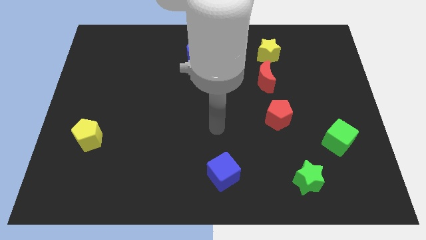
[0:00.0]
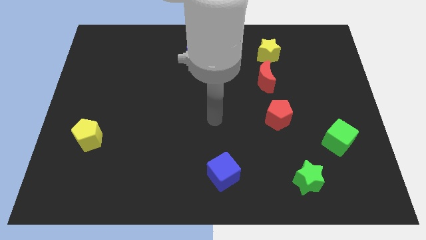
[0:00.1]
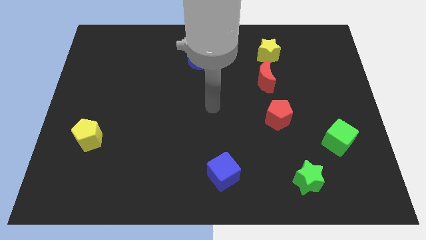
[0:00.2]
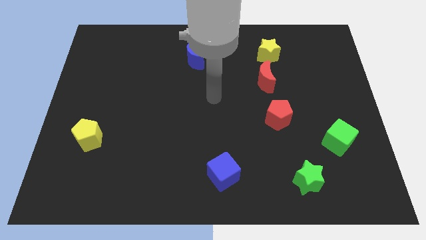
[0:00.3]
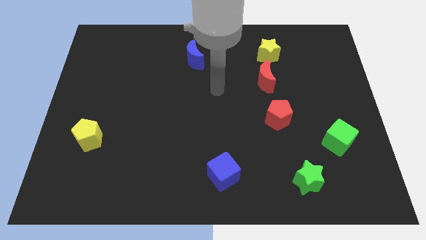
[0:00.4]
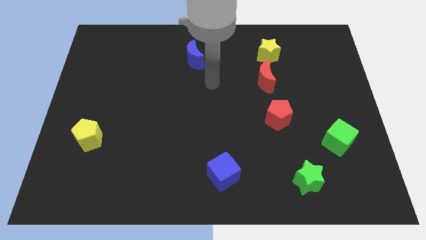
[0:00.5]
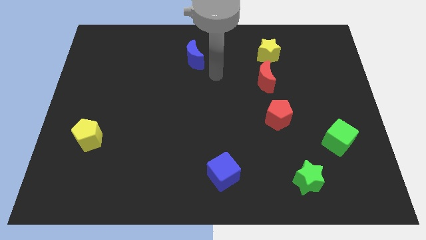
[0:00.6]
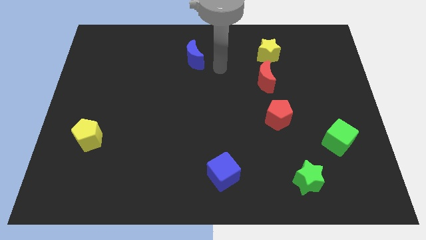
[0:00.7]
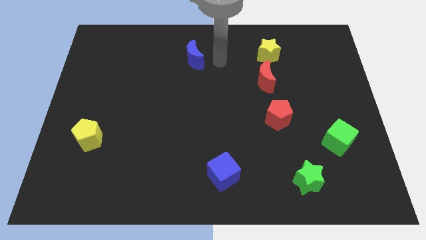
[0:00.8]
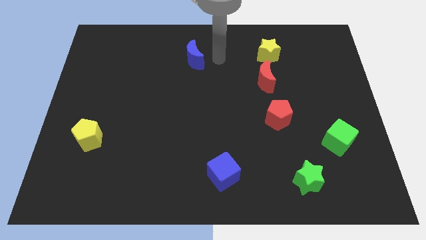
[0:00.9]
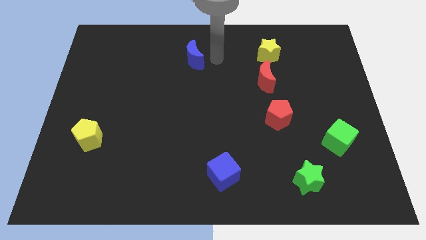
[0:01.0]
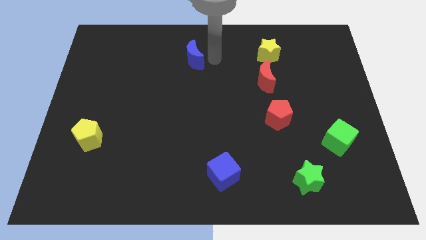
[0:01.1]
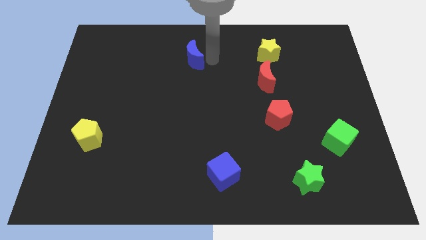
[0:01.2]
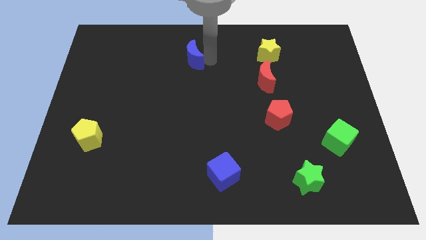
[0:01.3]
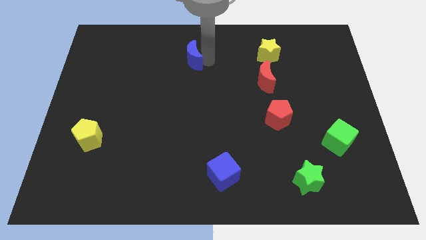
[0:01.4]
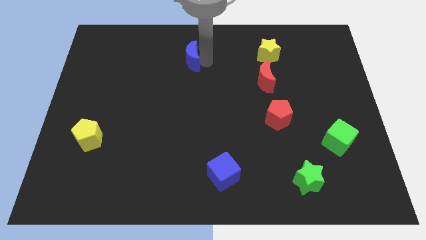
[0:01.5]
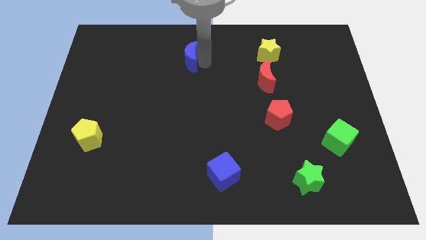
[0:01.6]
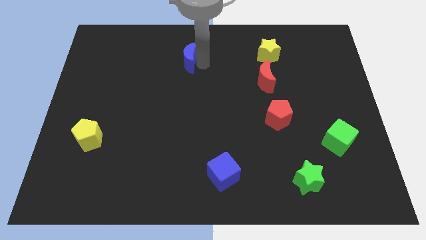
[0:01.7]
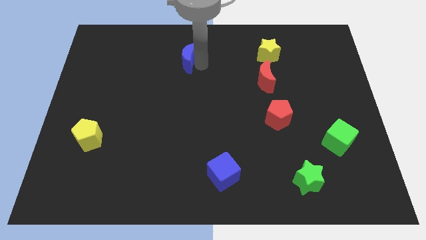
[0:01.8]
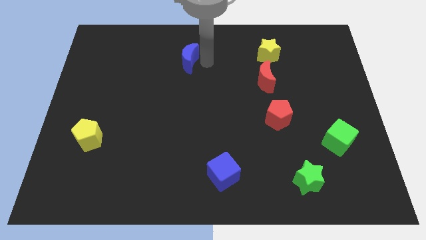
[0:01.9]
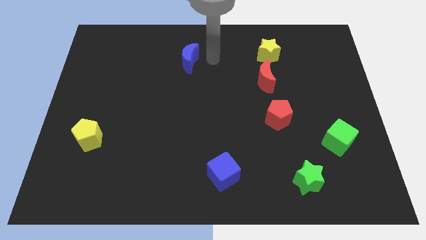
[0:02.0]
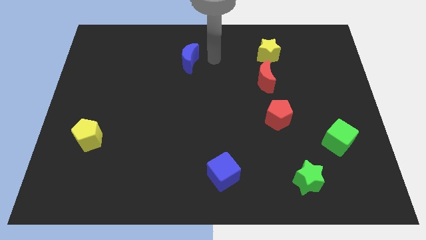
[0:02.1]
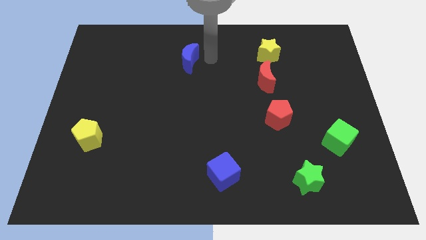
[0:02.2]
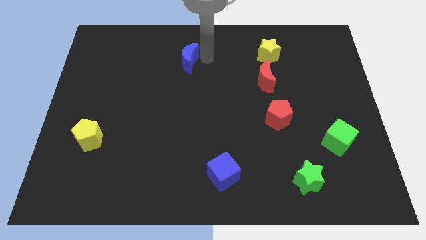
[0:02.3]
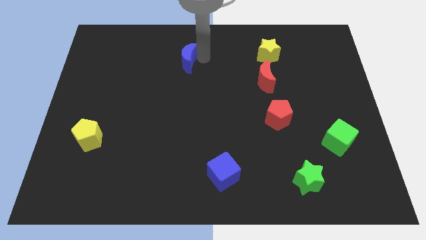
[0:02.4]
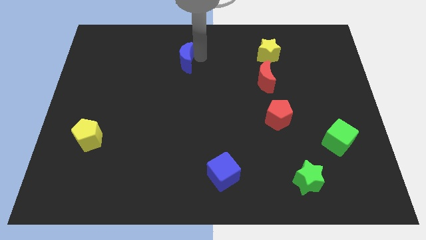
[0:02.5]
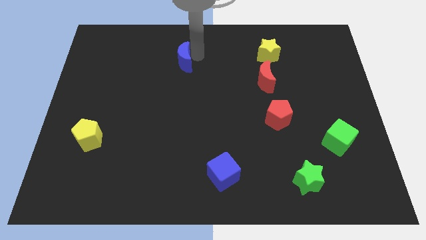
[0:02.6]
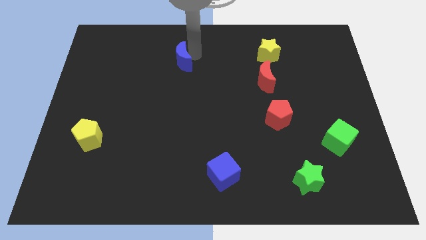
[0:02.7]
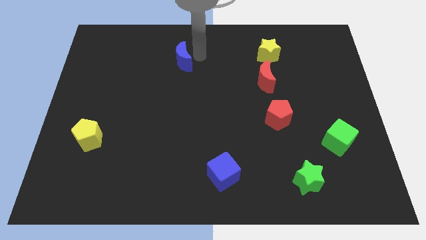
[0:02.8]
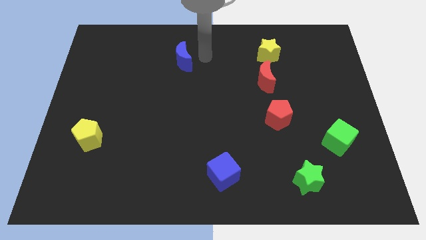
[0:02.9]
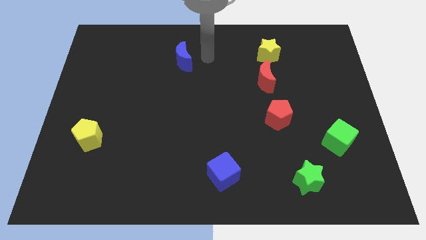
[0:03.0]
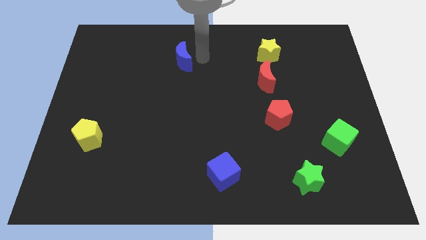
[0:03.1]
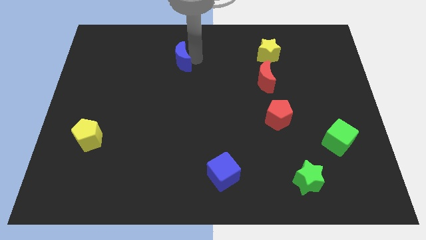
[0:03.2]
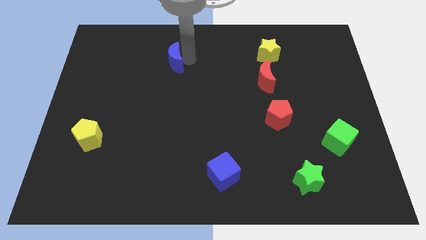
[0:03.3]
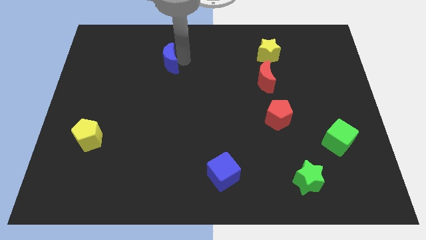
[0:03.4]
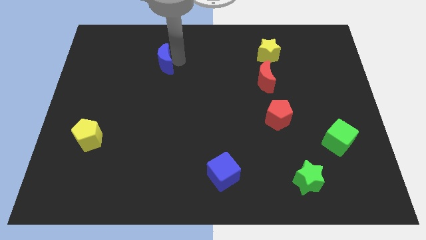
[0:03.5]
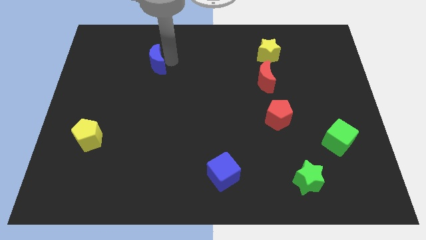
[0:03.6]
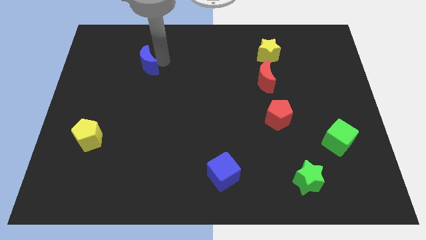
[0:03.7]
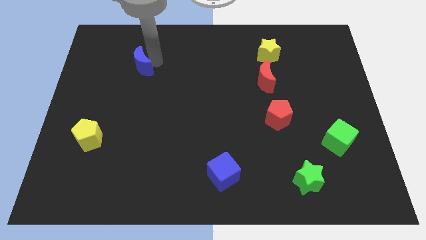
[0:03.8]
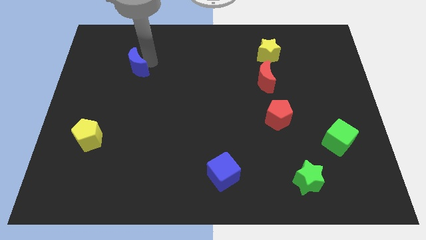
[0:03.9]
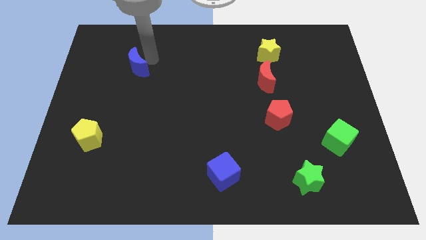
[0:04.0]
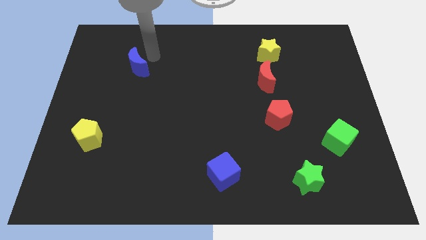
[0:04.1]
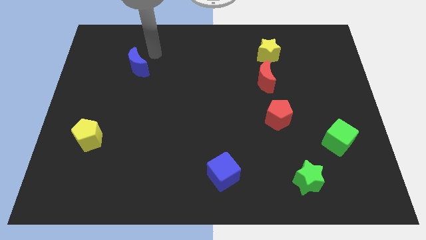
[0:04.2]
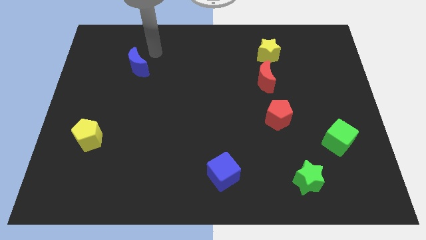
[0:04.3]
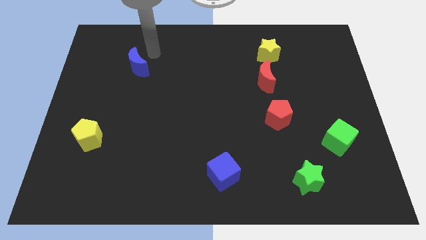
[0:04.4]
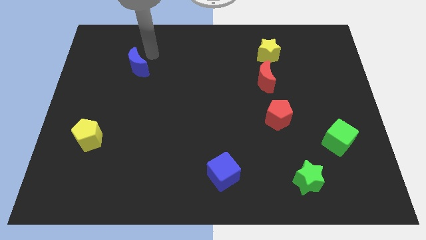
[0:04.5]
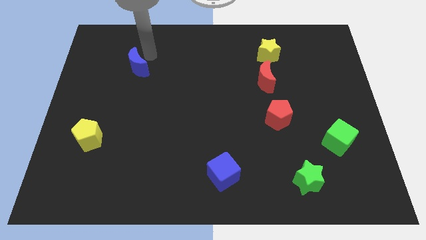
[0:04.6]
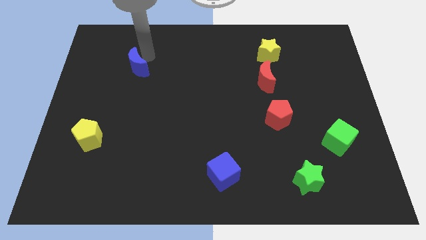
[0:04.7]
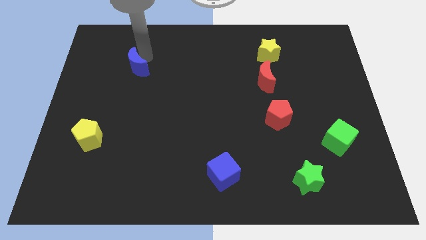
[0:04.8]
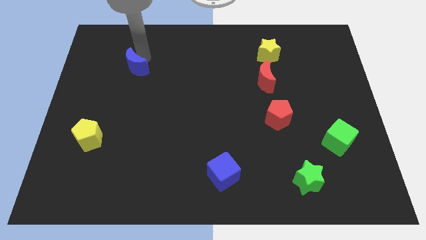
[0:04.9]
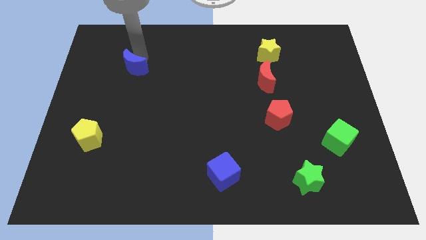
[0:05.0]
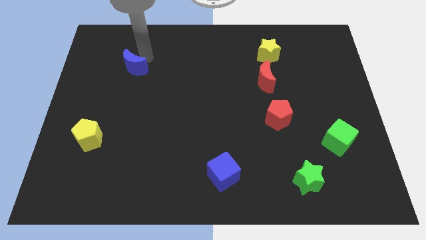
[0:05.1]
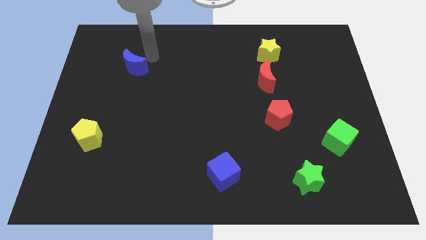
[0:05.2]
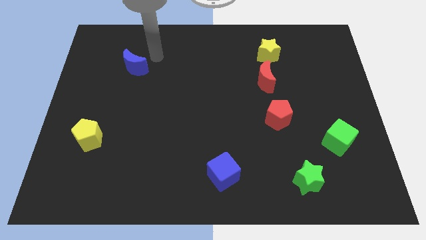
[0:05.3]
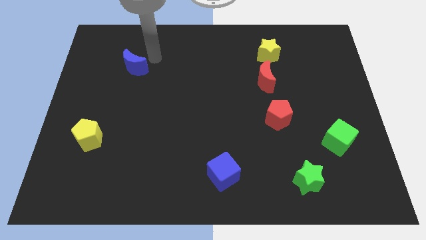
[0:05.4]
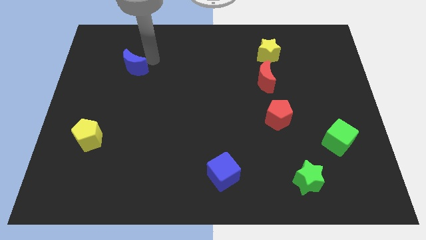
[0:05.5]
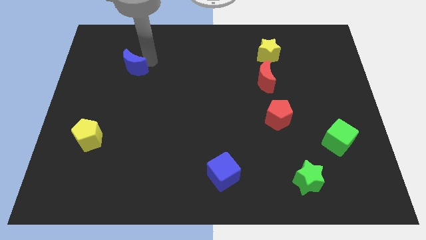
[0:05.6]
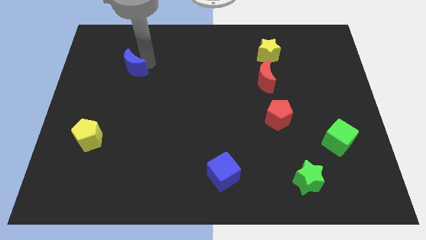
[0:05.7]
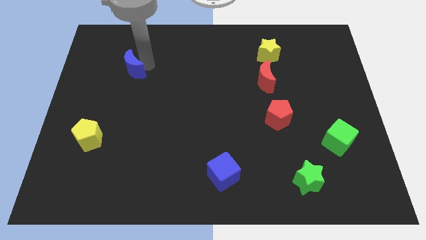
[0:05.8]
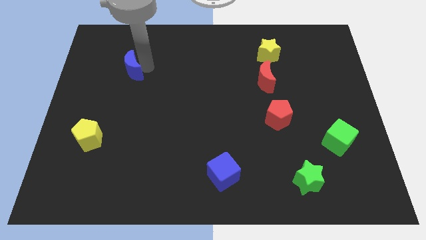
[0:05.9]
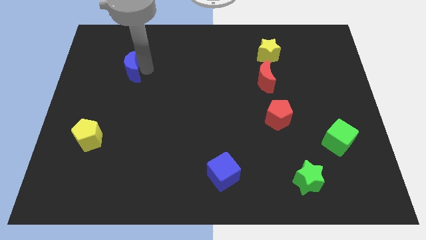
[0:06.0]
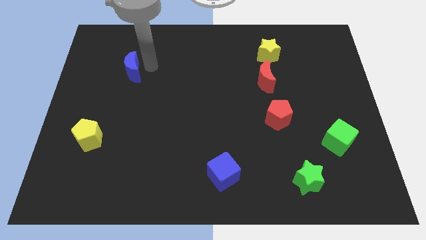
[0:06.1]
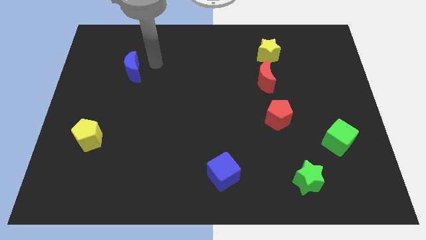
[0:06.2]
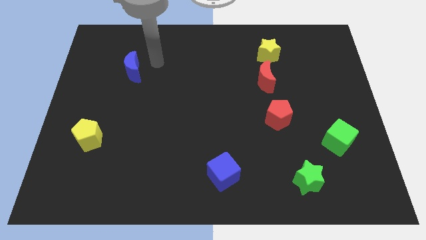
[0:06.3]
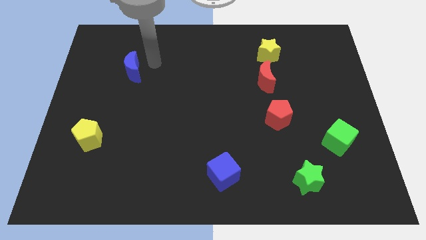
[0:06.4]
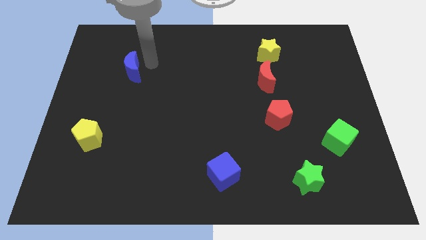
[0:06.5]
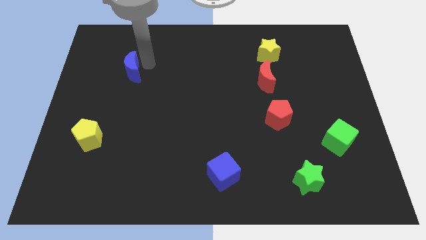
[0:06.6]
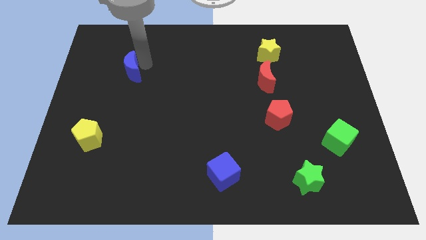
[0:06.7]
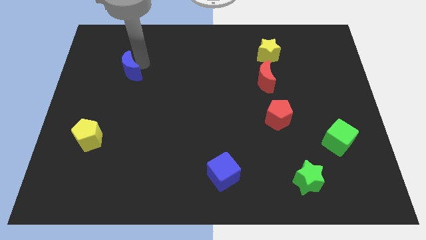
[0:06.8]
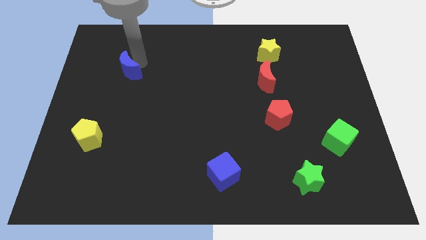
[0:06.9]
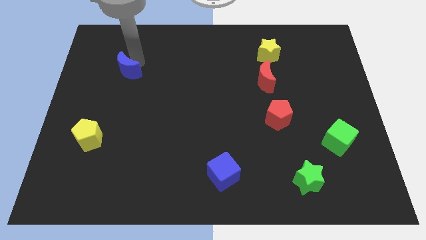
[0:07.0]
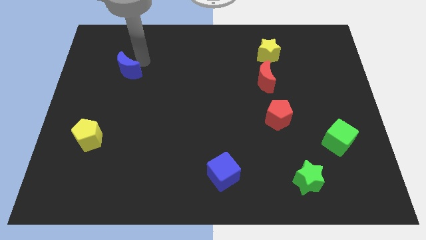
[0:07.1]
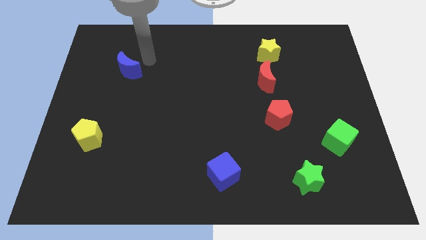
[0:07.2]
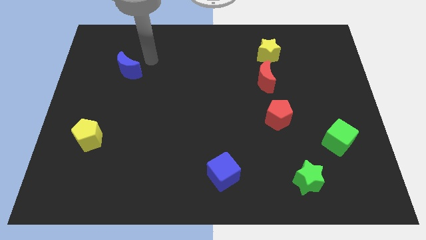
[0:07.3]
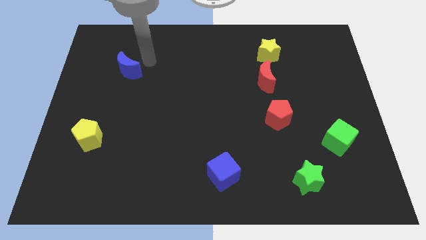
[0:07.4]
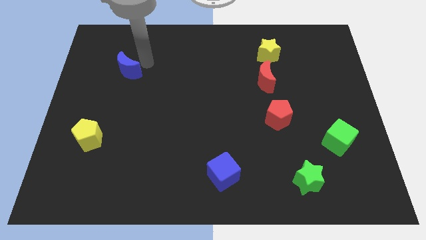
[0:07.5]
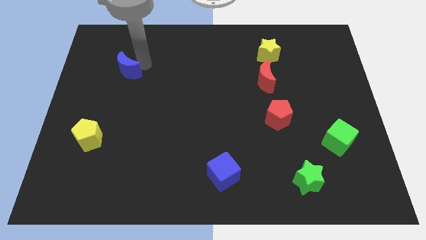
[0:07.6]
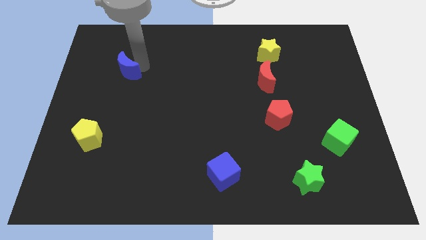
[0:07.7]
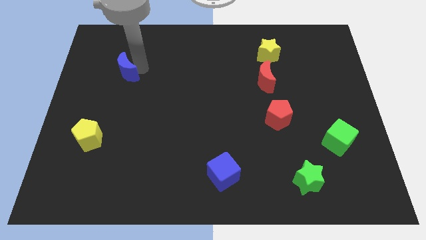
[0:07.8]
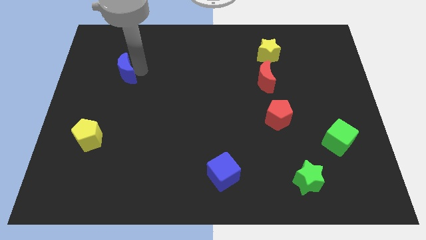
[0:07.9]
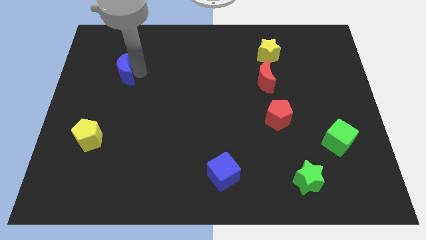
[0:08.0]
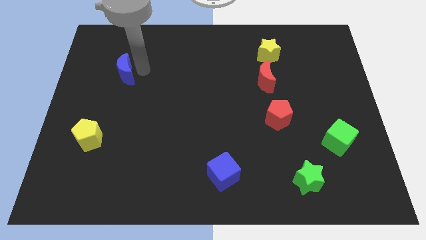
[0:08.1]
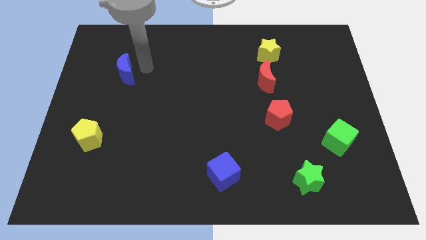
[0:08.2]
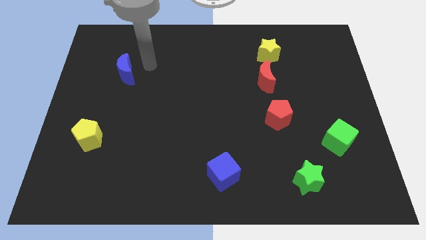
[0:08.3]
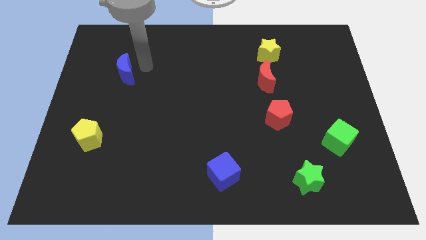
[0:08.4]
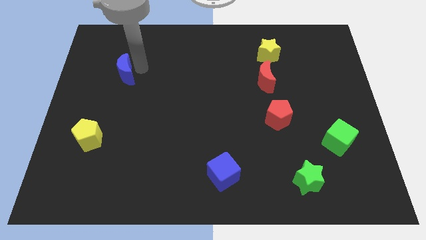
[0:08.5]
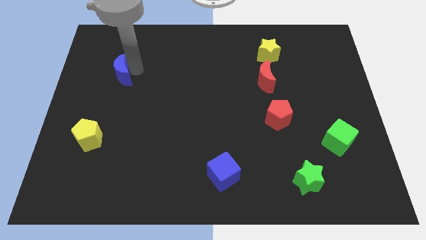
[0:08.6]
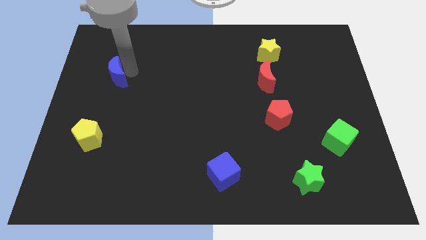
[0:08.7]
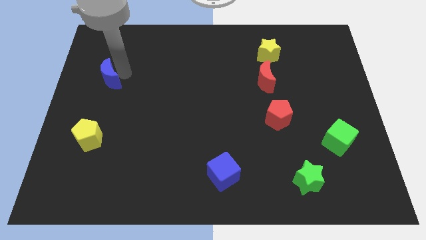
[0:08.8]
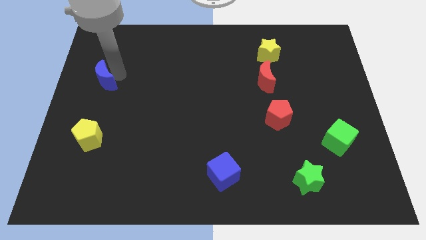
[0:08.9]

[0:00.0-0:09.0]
move the blue moon to the left side
